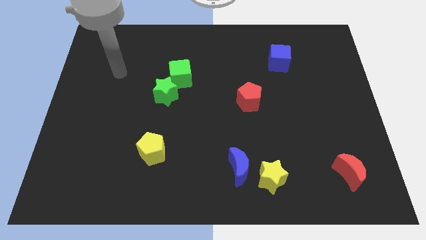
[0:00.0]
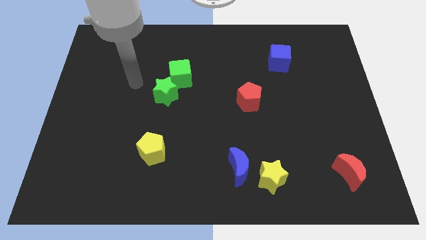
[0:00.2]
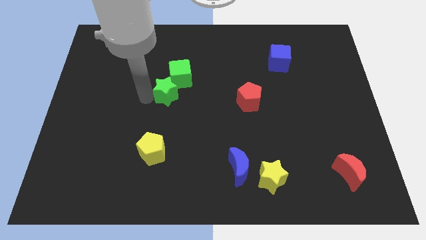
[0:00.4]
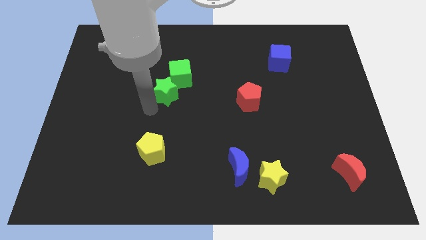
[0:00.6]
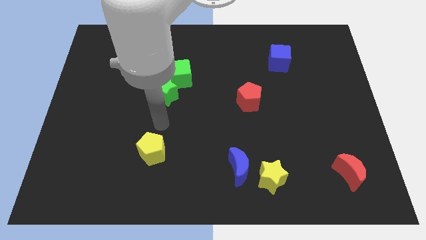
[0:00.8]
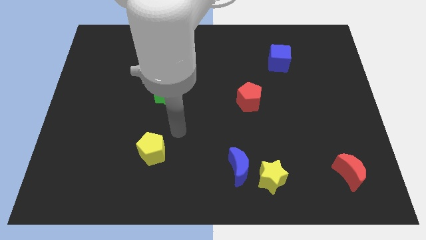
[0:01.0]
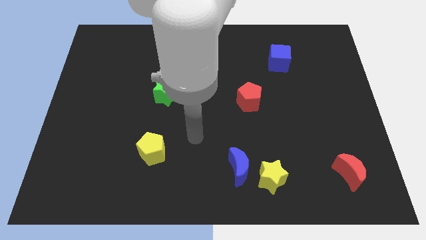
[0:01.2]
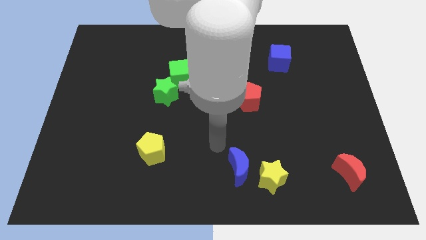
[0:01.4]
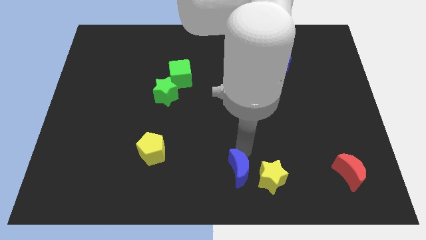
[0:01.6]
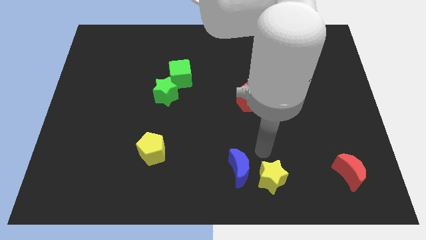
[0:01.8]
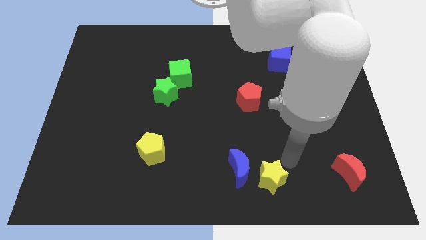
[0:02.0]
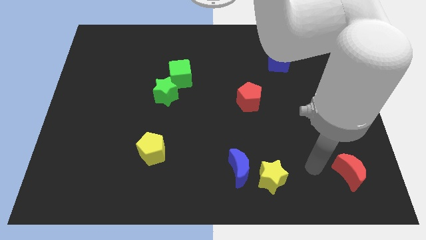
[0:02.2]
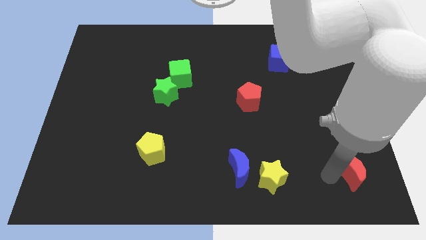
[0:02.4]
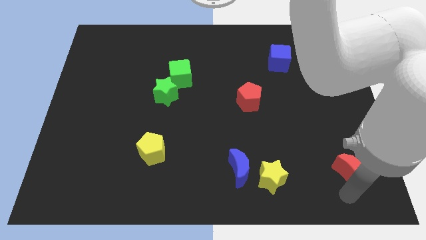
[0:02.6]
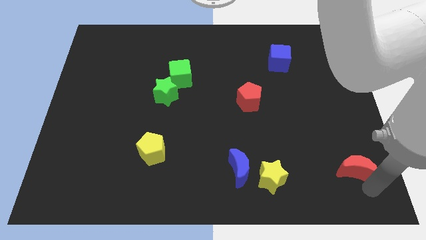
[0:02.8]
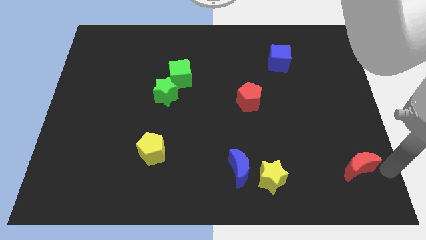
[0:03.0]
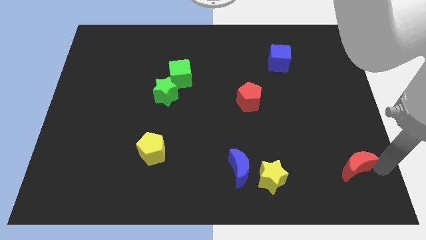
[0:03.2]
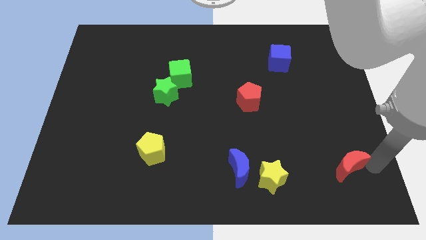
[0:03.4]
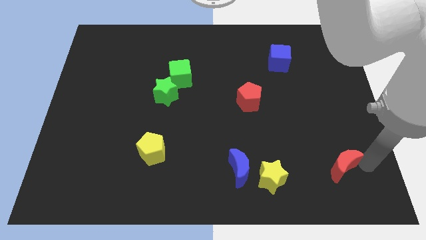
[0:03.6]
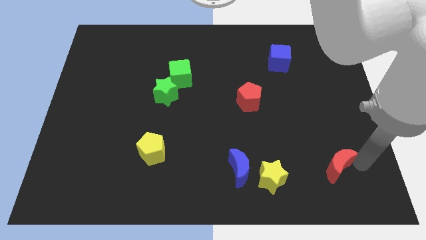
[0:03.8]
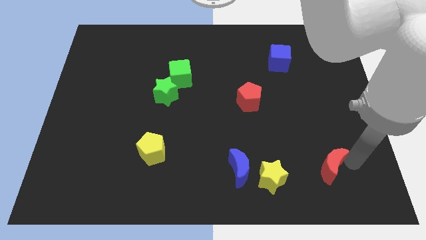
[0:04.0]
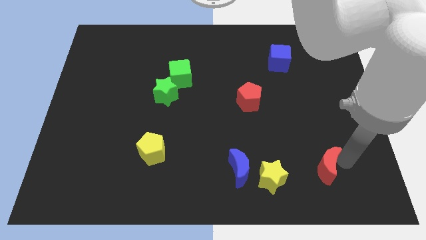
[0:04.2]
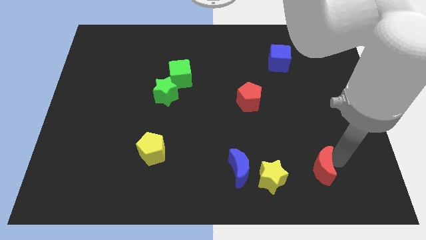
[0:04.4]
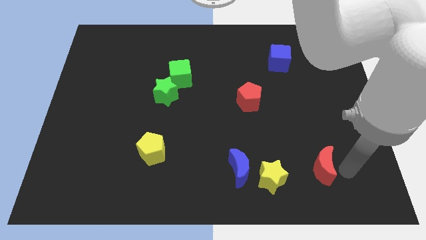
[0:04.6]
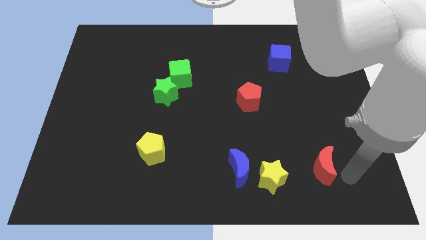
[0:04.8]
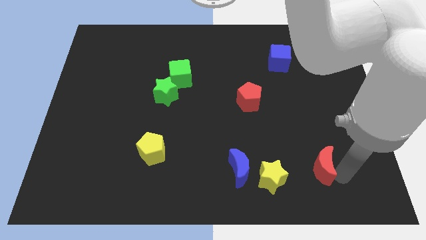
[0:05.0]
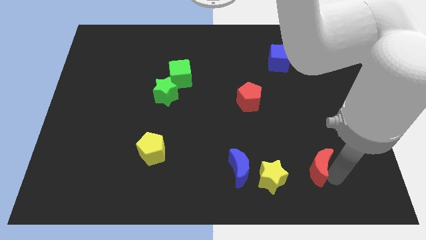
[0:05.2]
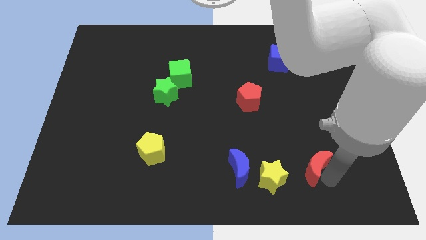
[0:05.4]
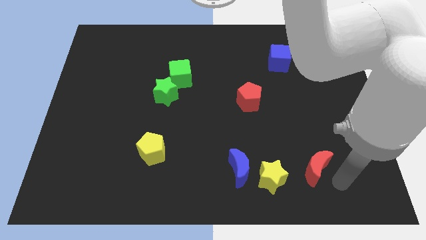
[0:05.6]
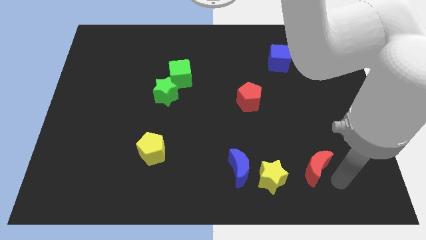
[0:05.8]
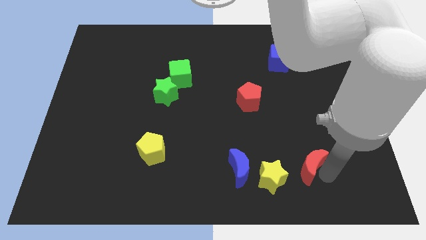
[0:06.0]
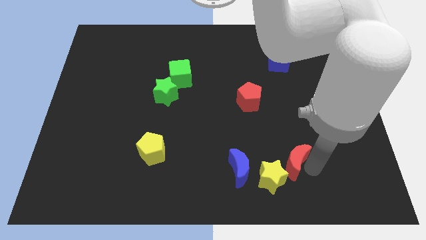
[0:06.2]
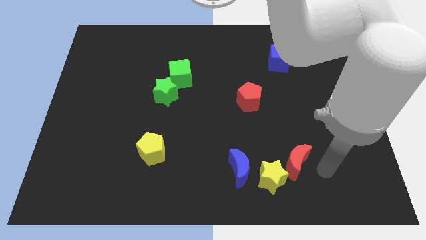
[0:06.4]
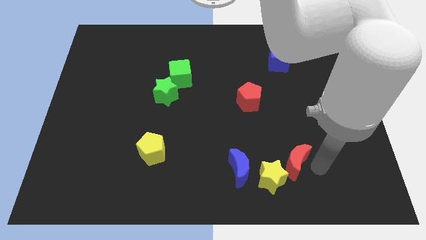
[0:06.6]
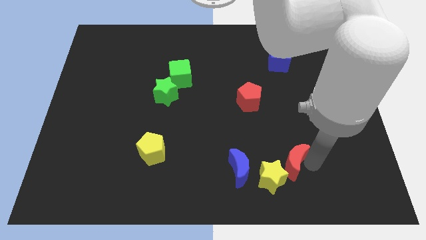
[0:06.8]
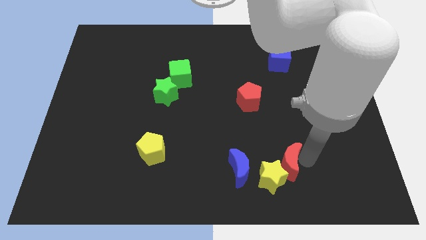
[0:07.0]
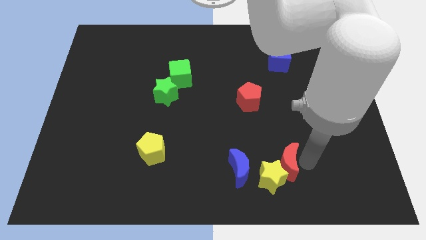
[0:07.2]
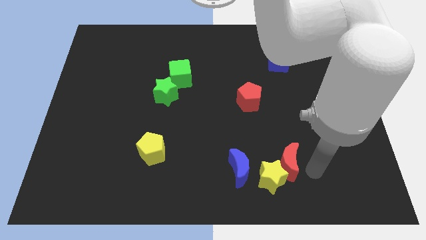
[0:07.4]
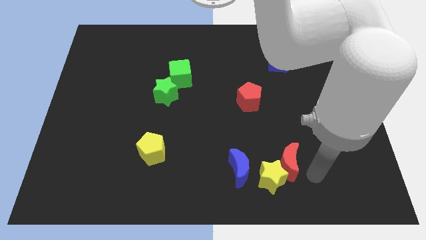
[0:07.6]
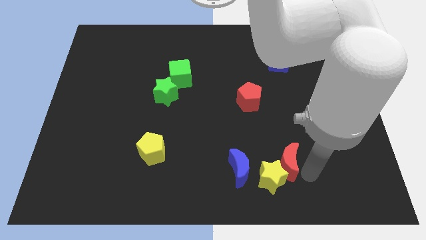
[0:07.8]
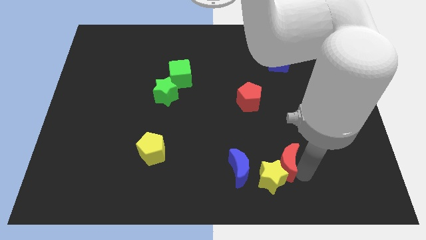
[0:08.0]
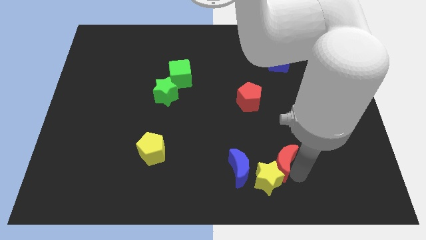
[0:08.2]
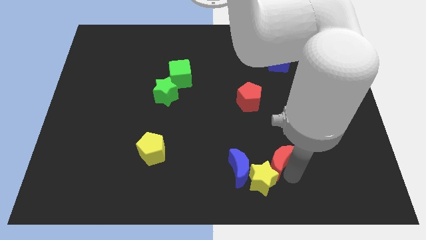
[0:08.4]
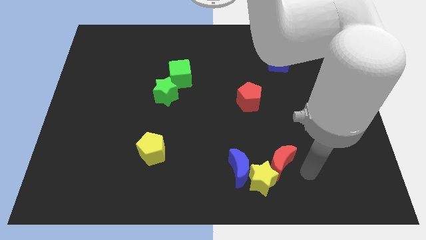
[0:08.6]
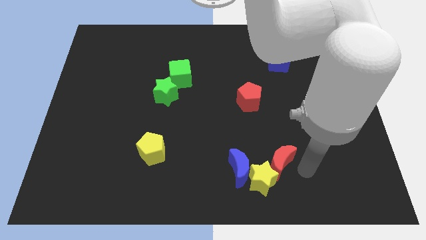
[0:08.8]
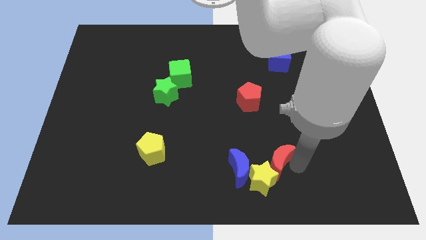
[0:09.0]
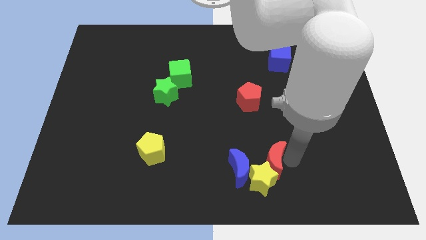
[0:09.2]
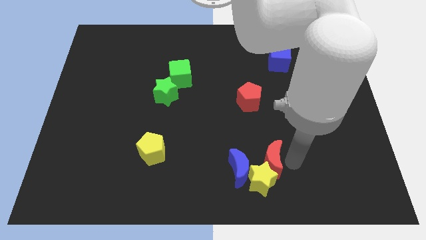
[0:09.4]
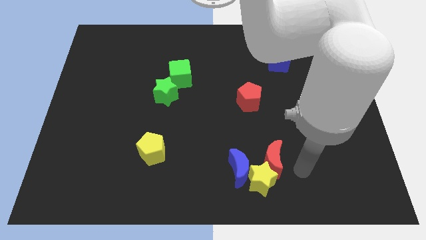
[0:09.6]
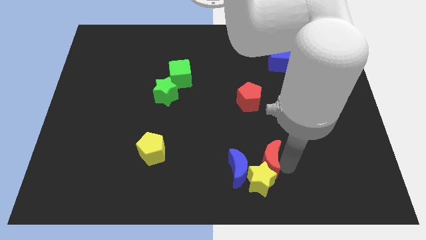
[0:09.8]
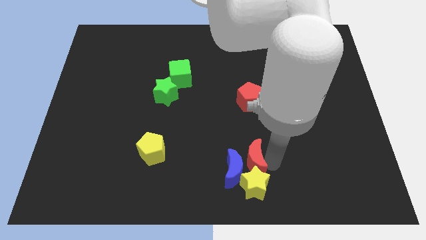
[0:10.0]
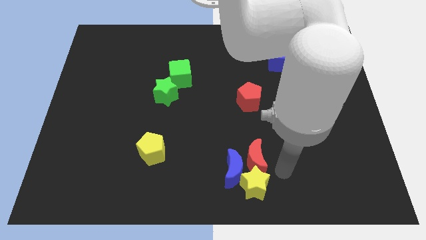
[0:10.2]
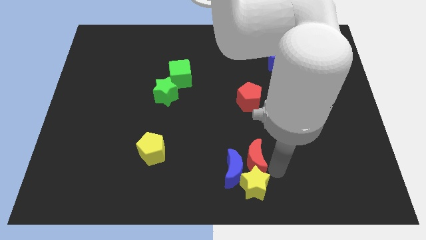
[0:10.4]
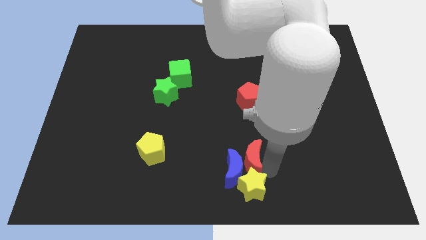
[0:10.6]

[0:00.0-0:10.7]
slide the red moon to the left

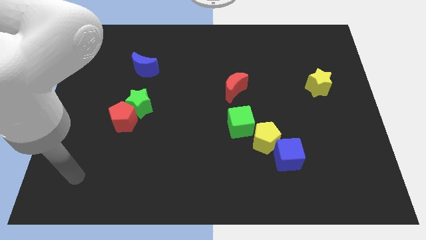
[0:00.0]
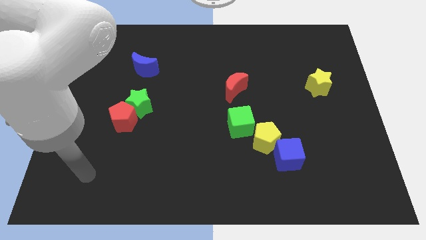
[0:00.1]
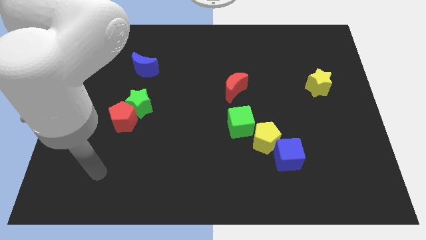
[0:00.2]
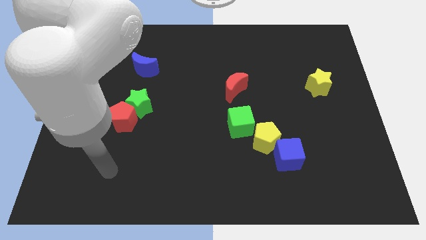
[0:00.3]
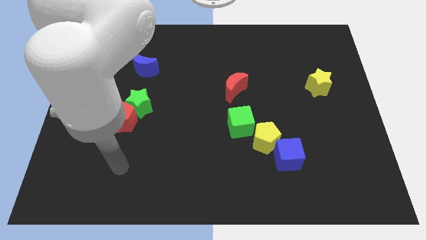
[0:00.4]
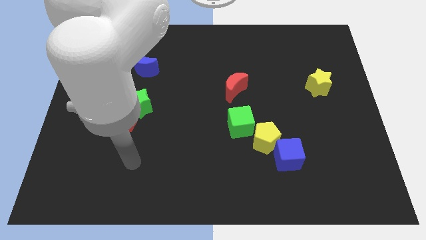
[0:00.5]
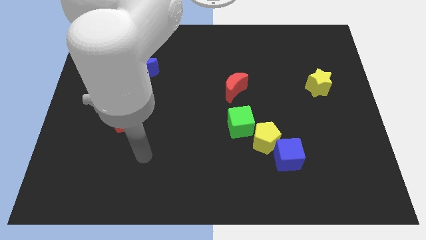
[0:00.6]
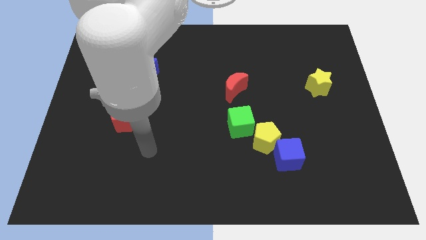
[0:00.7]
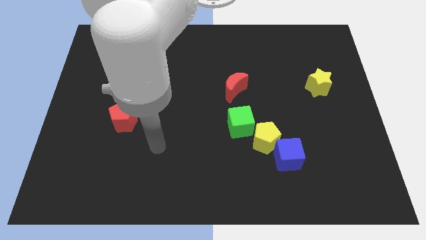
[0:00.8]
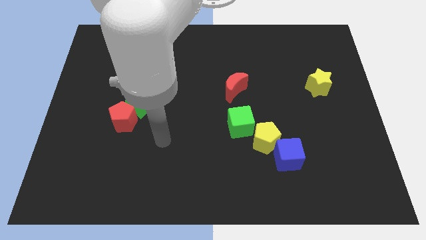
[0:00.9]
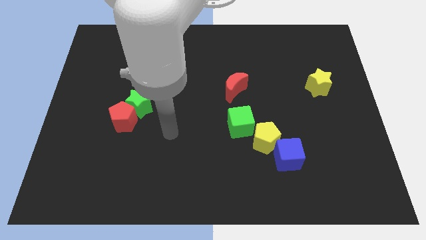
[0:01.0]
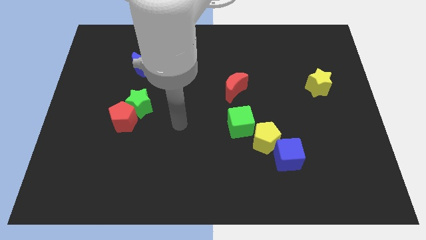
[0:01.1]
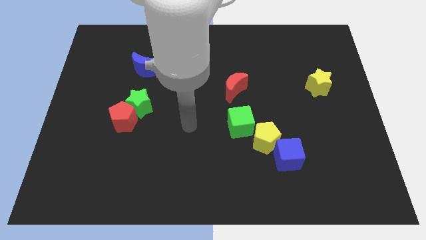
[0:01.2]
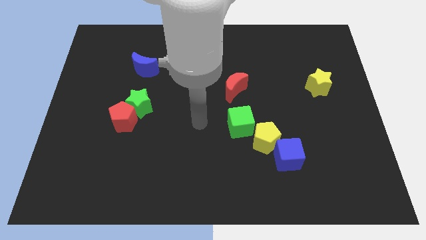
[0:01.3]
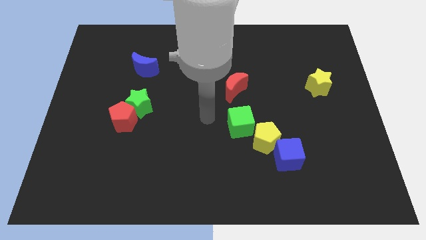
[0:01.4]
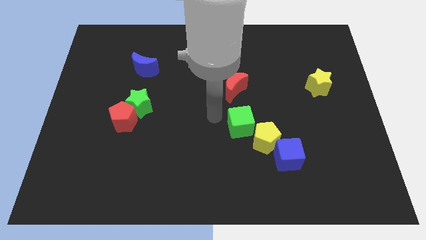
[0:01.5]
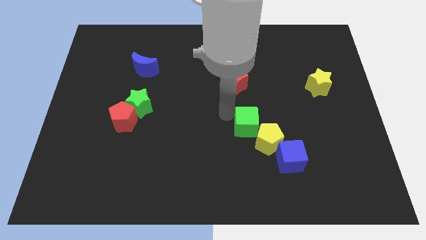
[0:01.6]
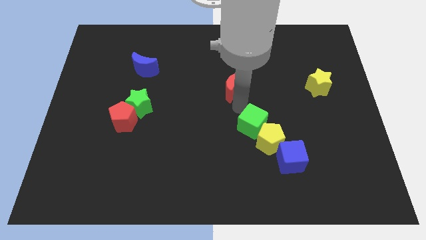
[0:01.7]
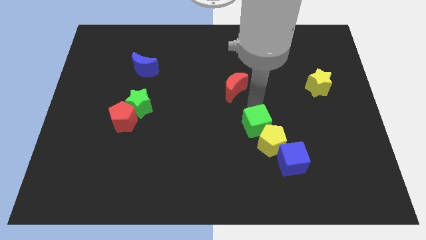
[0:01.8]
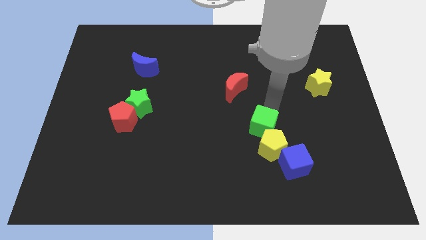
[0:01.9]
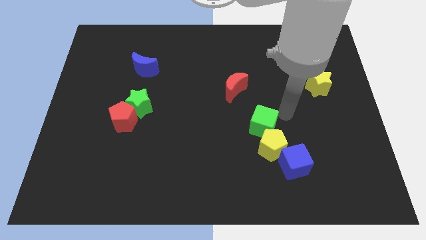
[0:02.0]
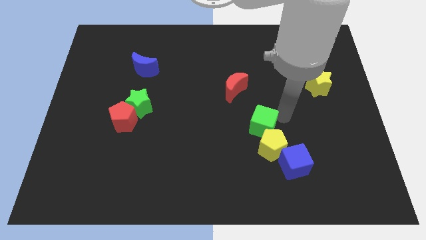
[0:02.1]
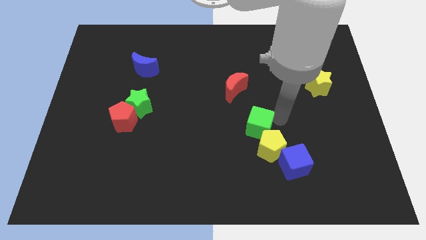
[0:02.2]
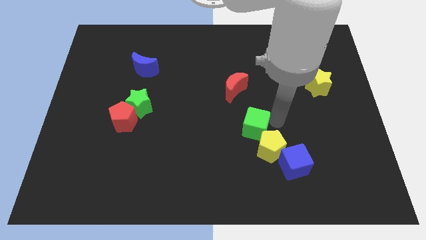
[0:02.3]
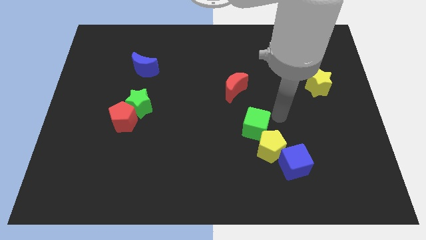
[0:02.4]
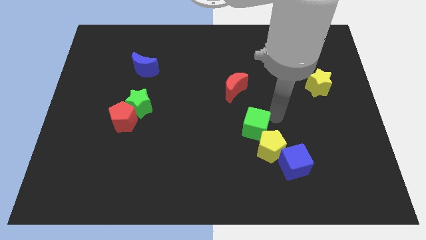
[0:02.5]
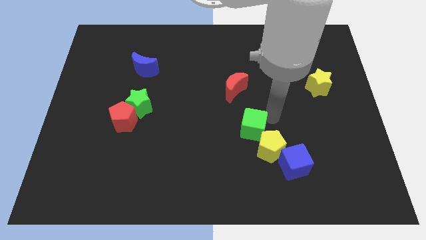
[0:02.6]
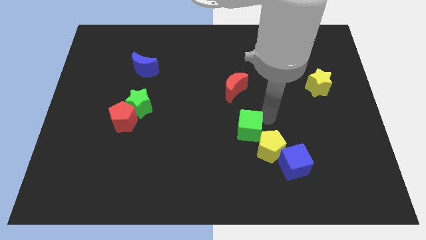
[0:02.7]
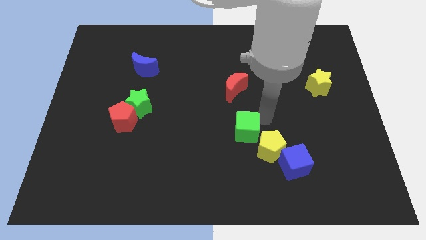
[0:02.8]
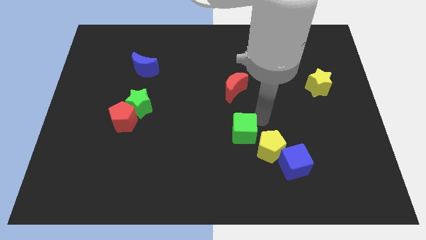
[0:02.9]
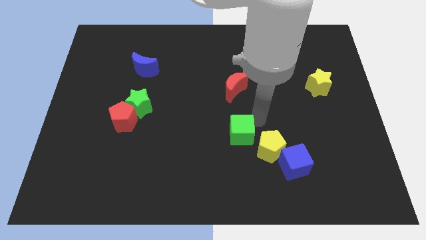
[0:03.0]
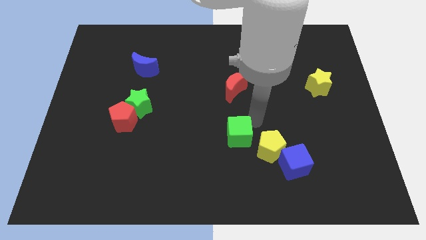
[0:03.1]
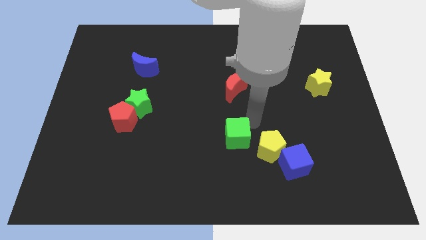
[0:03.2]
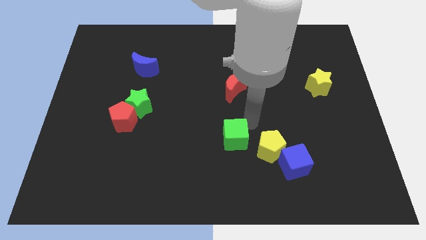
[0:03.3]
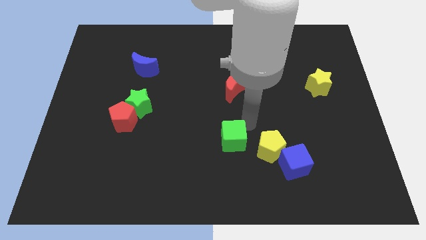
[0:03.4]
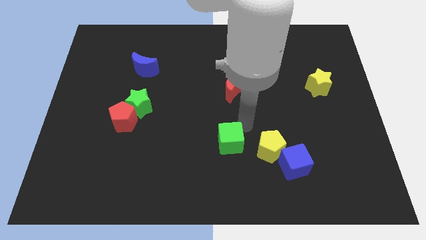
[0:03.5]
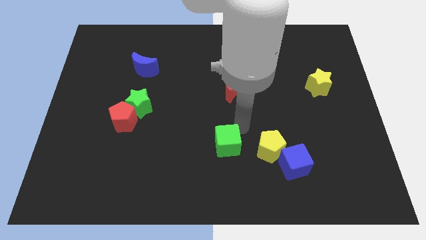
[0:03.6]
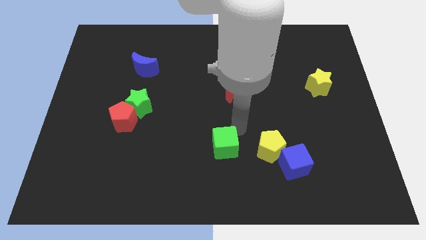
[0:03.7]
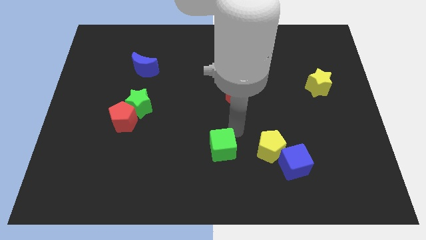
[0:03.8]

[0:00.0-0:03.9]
slide the green cube diagonally downwards and left slightly
